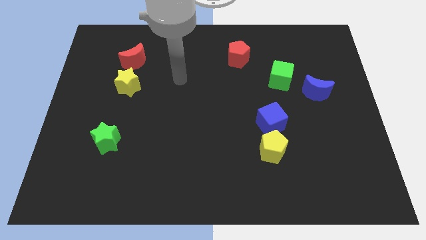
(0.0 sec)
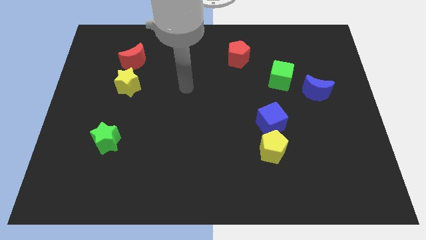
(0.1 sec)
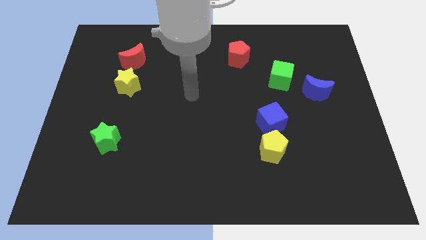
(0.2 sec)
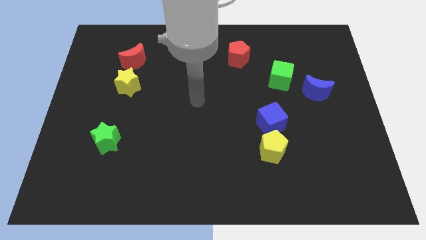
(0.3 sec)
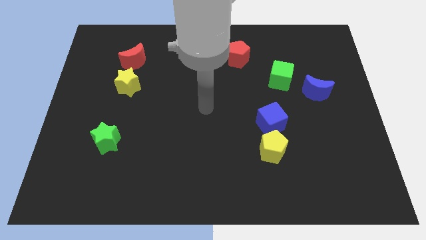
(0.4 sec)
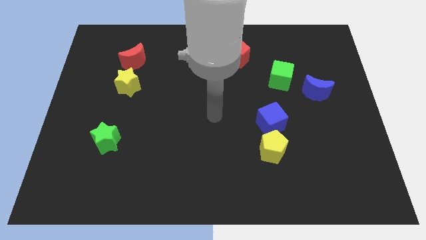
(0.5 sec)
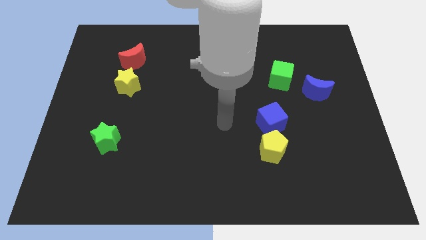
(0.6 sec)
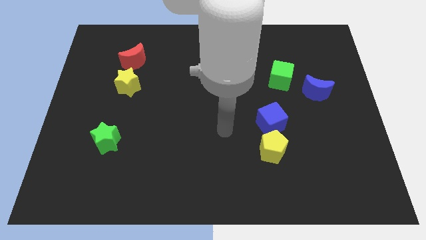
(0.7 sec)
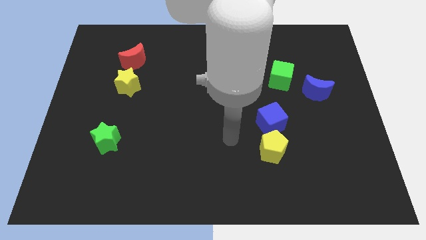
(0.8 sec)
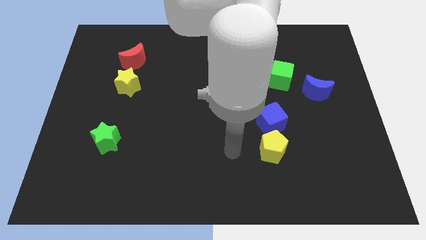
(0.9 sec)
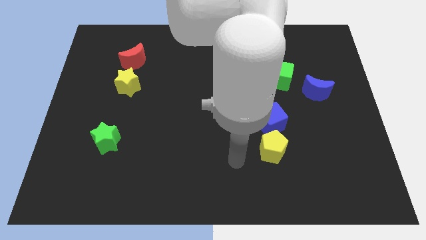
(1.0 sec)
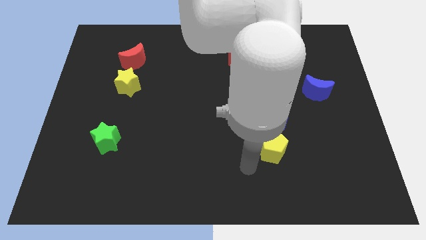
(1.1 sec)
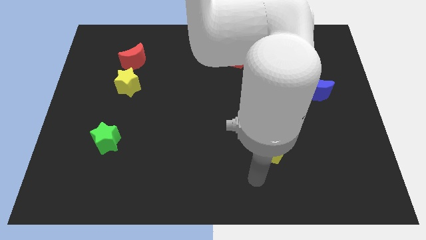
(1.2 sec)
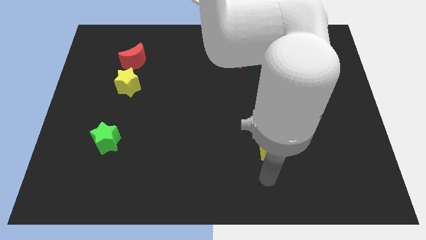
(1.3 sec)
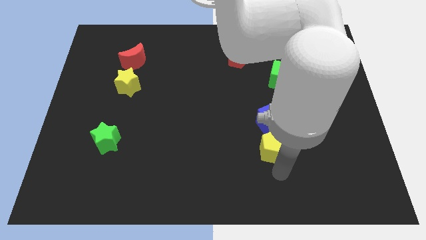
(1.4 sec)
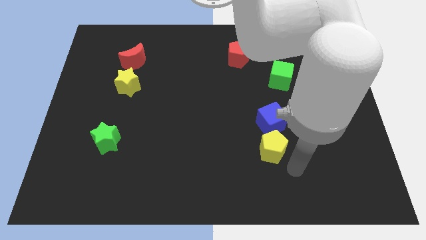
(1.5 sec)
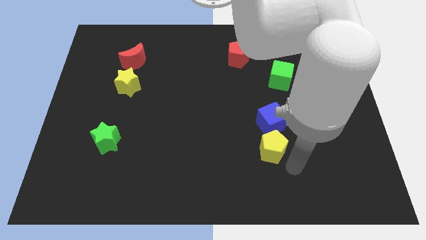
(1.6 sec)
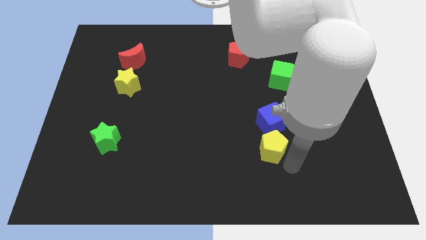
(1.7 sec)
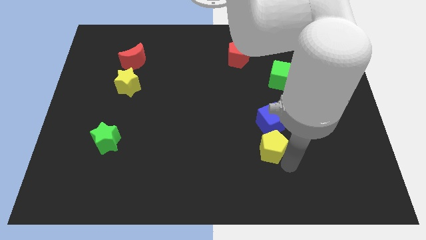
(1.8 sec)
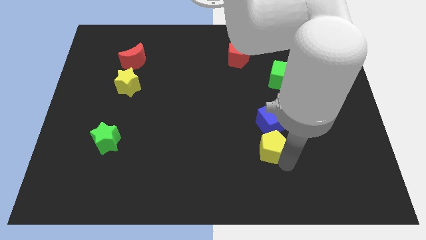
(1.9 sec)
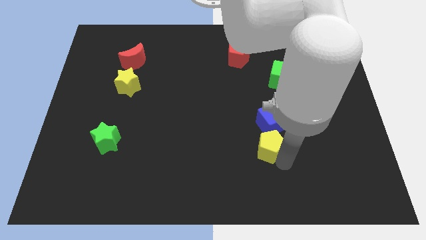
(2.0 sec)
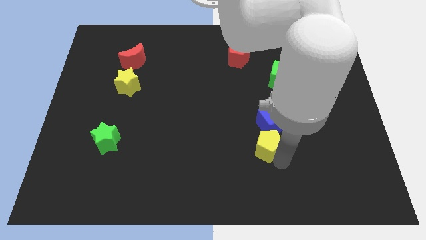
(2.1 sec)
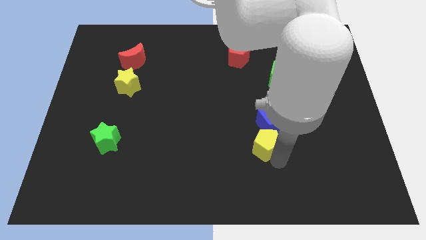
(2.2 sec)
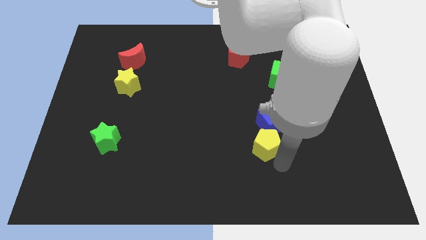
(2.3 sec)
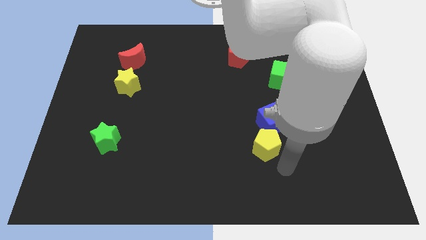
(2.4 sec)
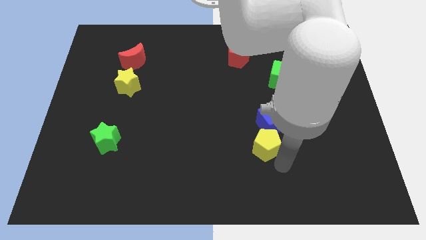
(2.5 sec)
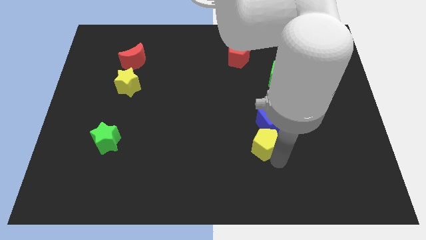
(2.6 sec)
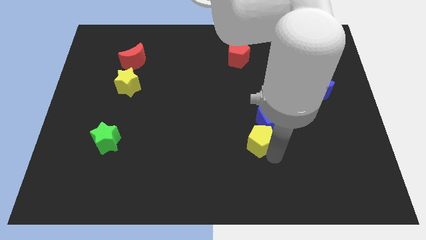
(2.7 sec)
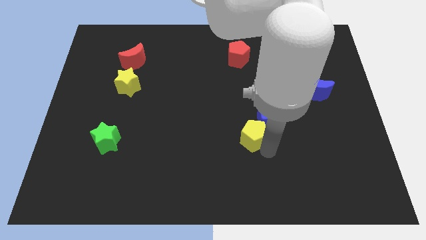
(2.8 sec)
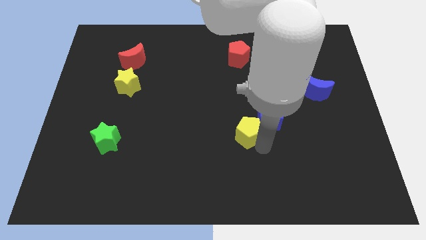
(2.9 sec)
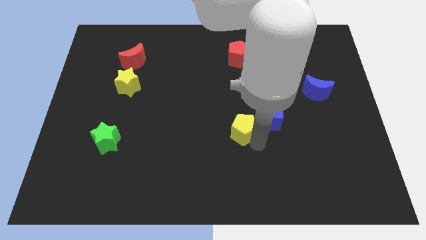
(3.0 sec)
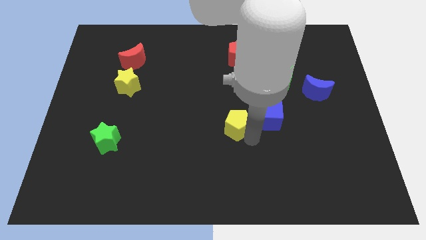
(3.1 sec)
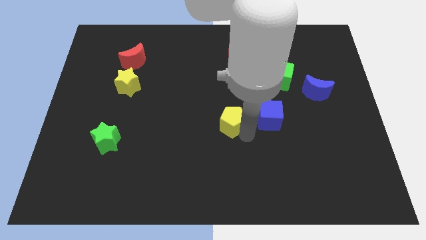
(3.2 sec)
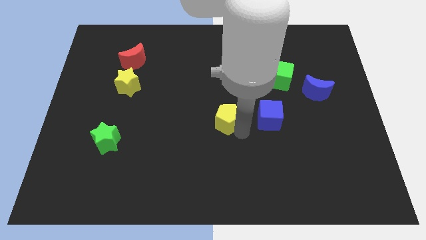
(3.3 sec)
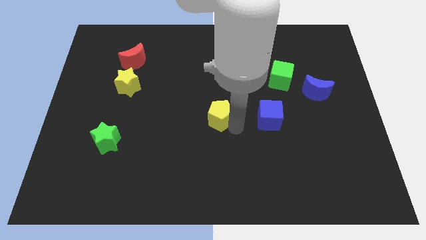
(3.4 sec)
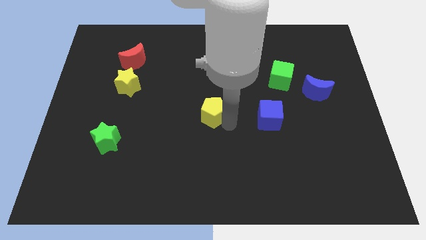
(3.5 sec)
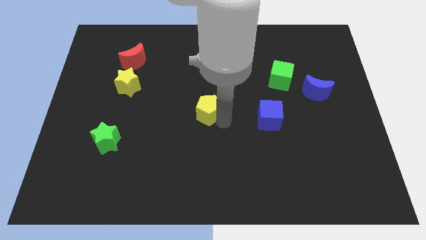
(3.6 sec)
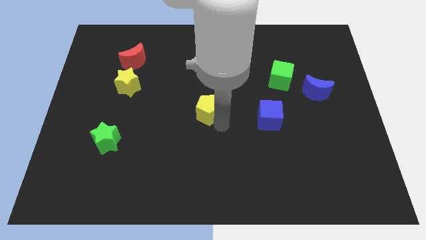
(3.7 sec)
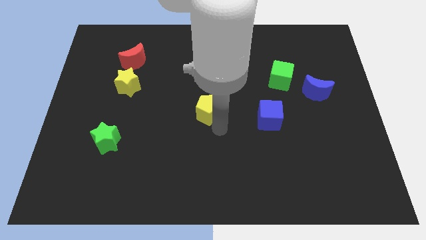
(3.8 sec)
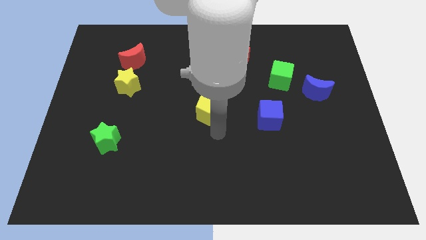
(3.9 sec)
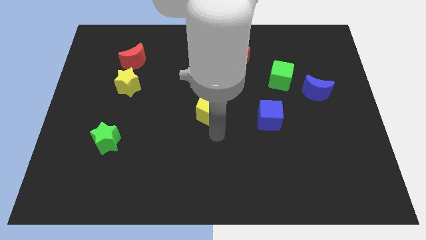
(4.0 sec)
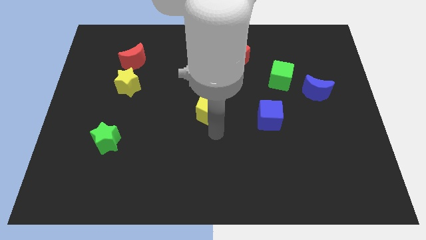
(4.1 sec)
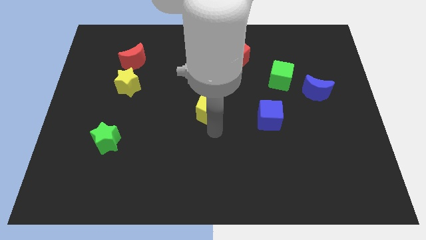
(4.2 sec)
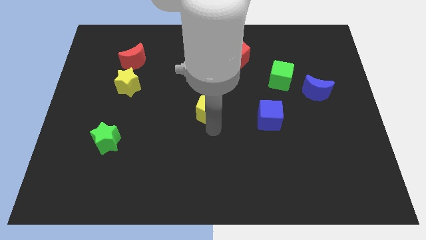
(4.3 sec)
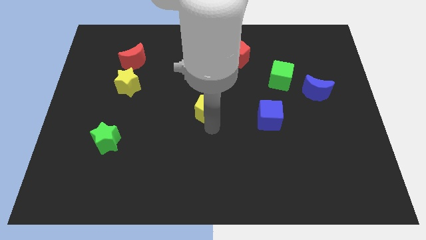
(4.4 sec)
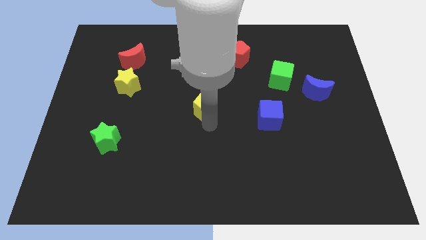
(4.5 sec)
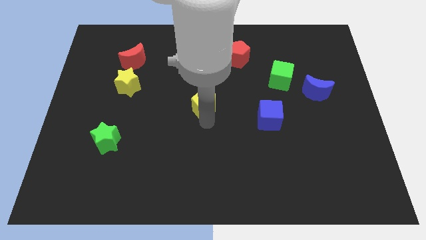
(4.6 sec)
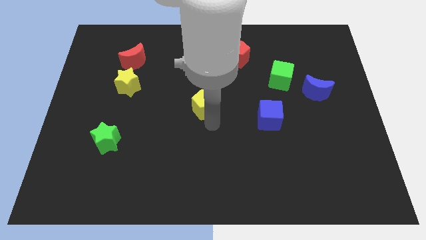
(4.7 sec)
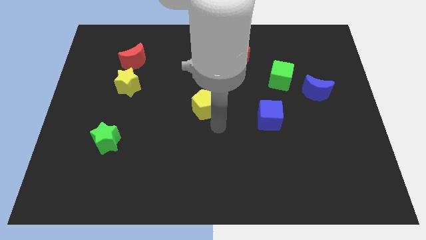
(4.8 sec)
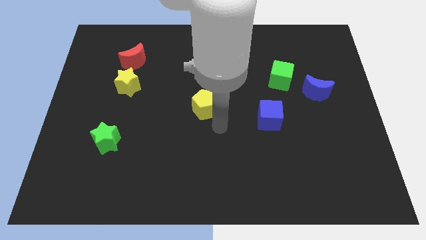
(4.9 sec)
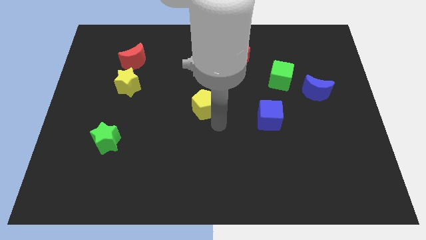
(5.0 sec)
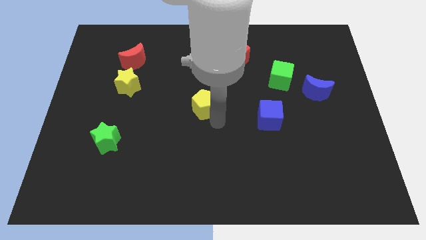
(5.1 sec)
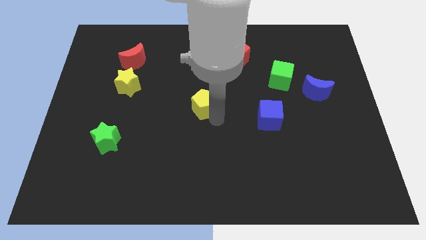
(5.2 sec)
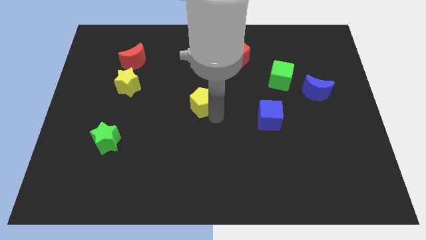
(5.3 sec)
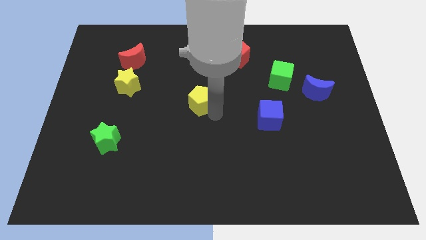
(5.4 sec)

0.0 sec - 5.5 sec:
slide the yellow pentagon up and then to the left

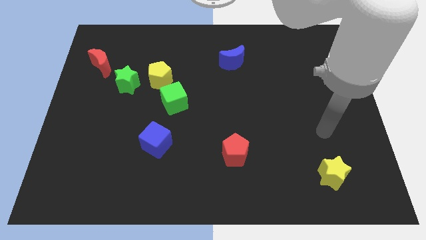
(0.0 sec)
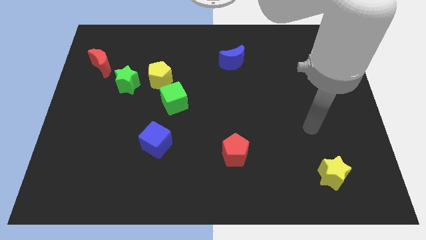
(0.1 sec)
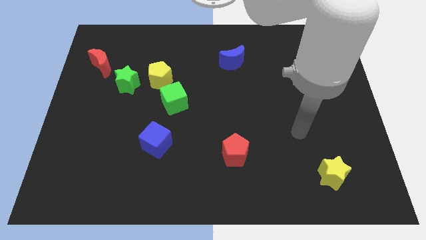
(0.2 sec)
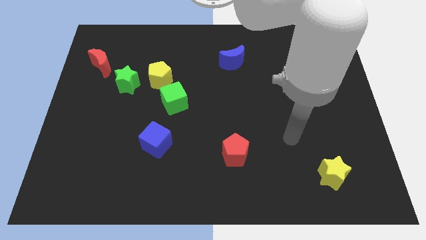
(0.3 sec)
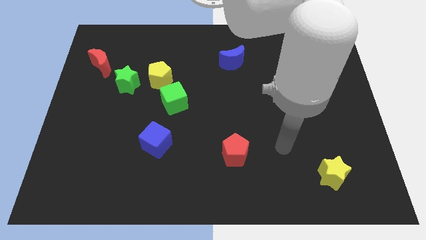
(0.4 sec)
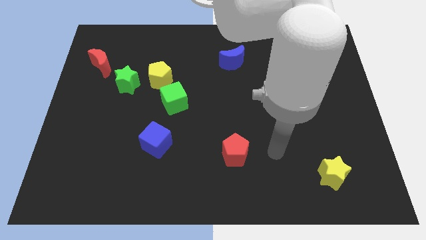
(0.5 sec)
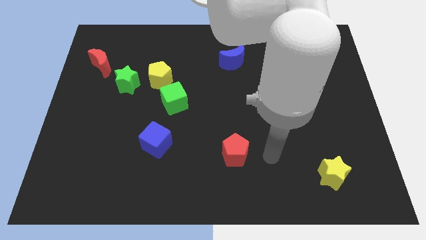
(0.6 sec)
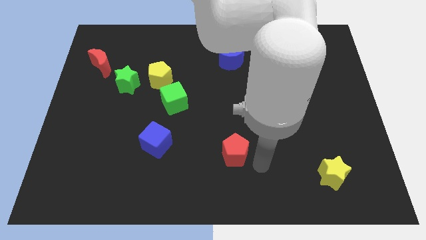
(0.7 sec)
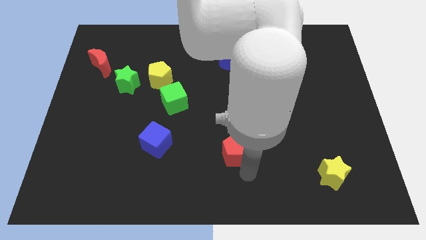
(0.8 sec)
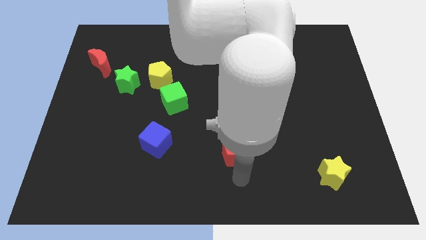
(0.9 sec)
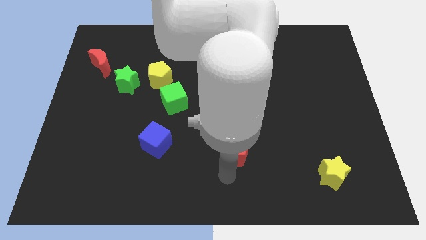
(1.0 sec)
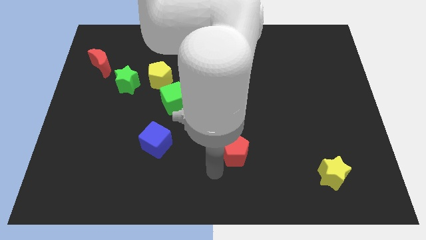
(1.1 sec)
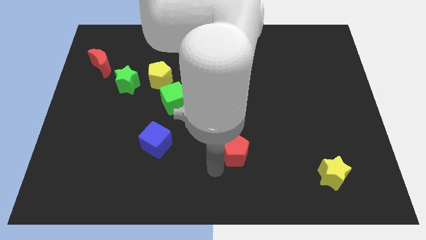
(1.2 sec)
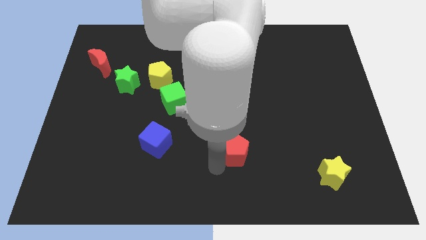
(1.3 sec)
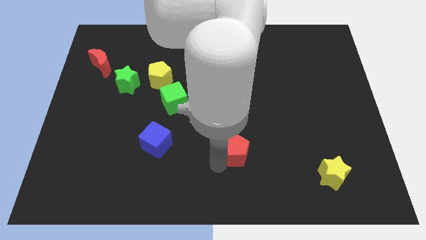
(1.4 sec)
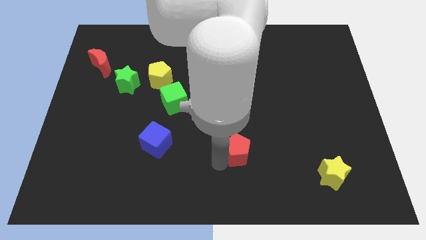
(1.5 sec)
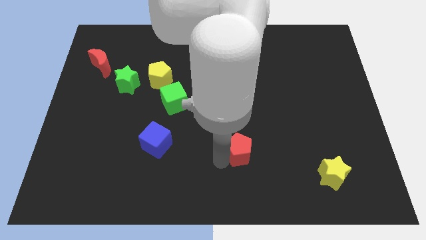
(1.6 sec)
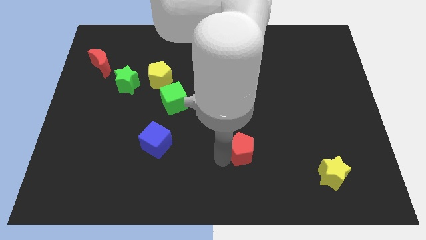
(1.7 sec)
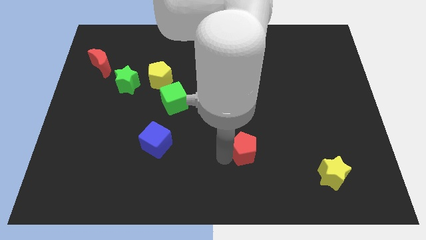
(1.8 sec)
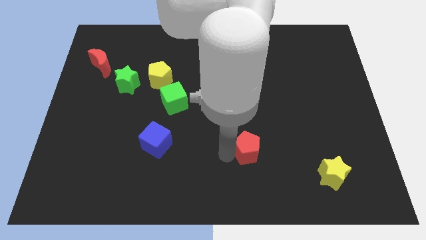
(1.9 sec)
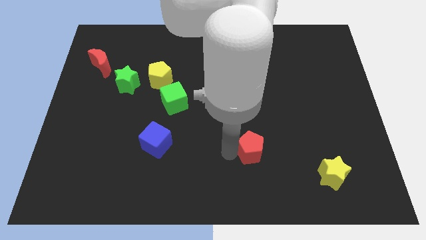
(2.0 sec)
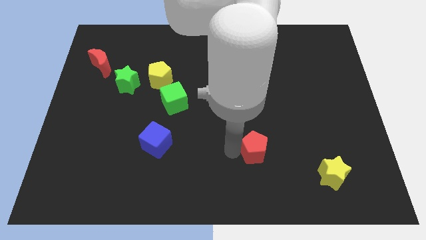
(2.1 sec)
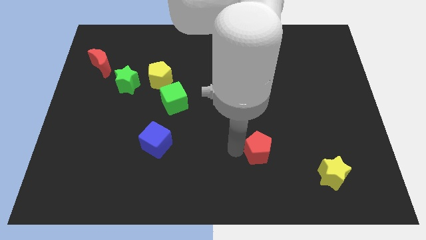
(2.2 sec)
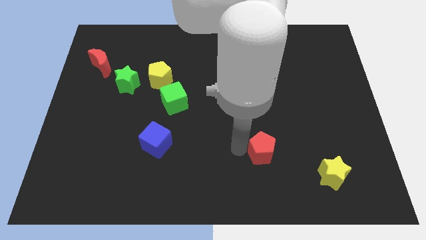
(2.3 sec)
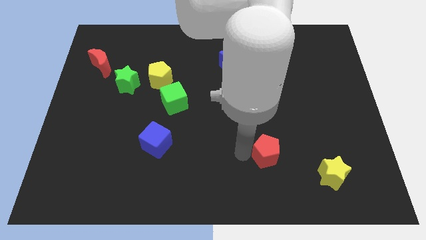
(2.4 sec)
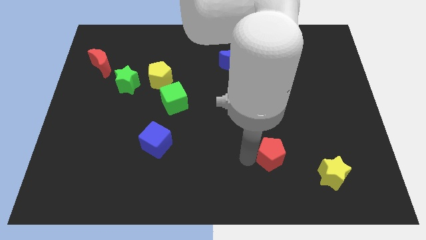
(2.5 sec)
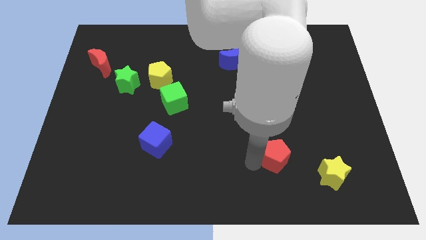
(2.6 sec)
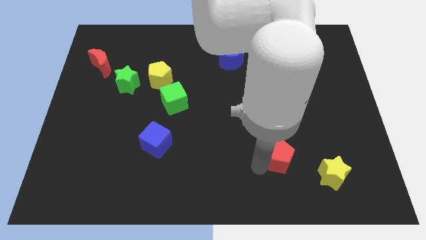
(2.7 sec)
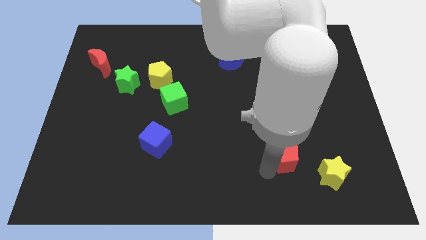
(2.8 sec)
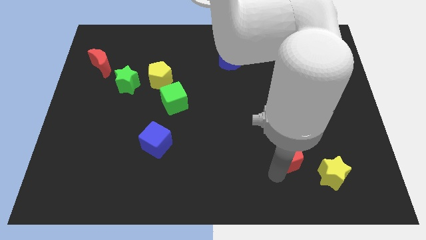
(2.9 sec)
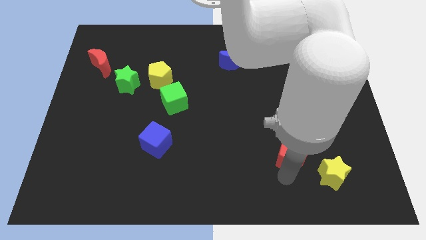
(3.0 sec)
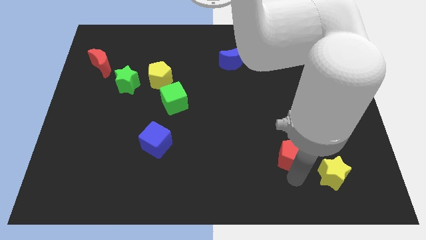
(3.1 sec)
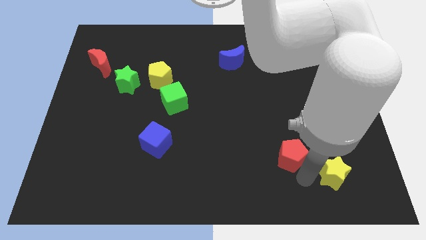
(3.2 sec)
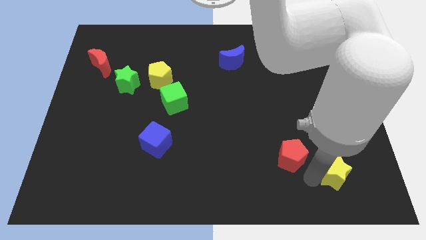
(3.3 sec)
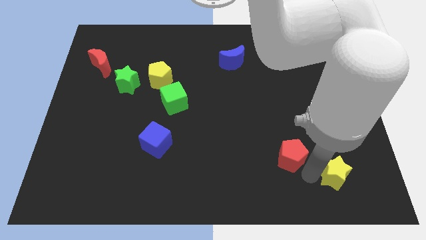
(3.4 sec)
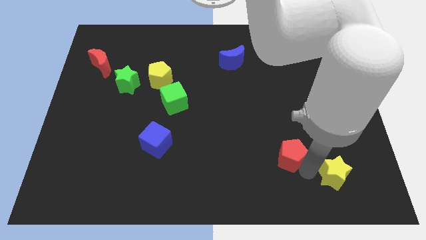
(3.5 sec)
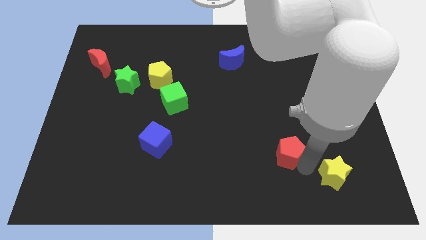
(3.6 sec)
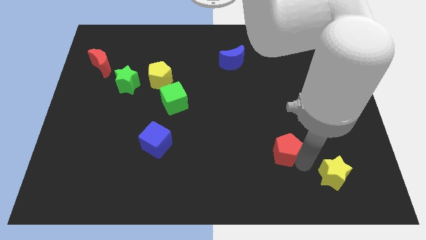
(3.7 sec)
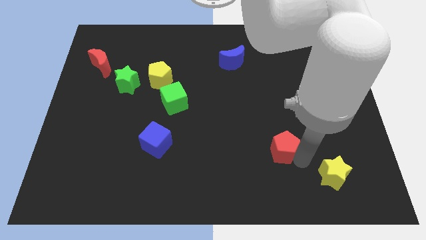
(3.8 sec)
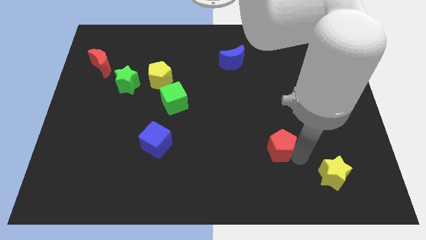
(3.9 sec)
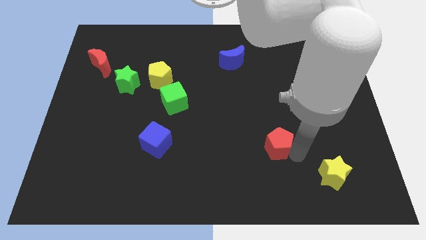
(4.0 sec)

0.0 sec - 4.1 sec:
move the red pentagon up and right a little bit
